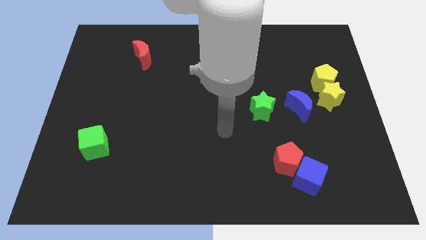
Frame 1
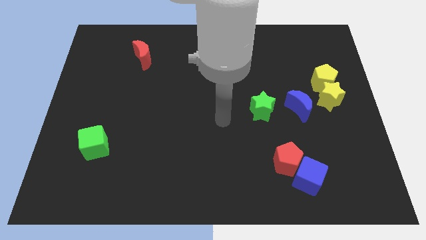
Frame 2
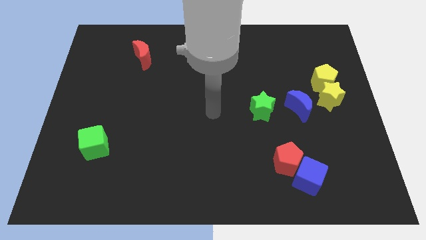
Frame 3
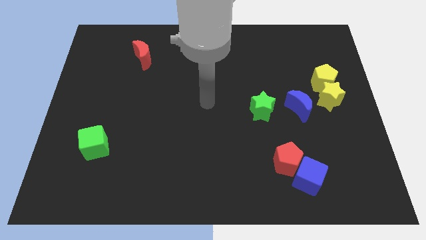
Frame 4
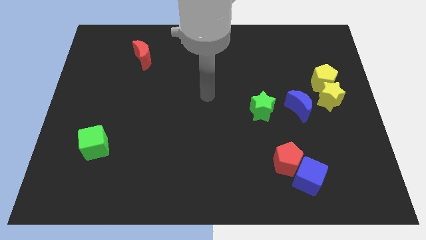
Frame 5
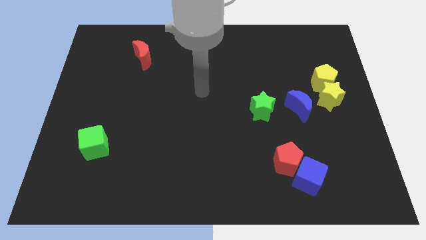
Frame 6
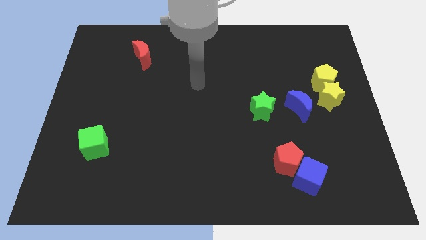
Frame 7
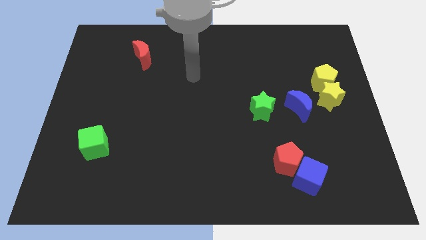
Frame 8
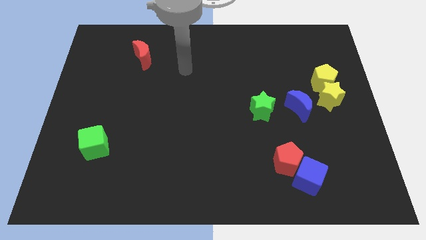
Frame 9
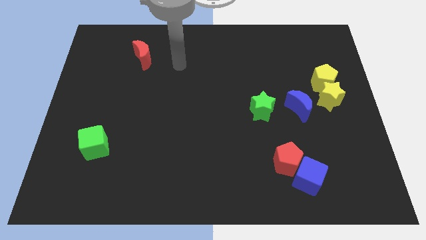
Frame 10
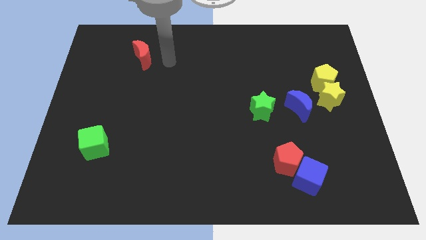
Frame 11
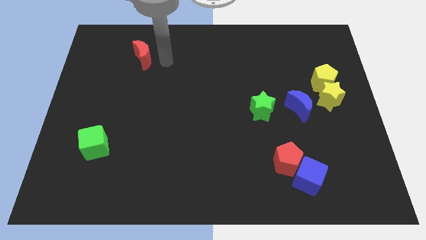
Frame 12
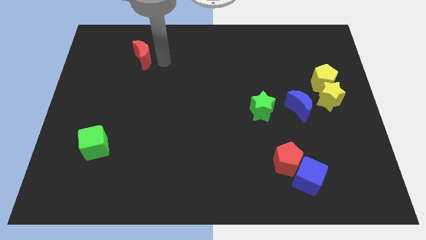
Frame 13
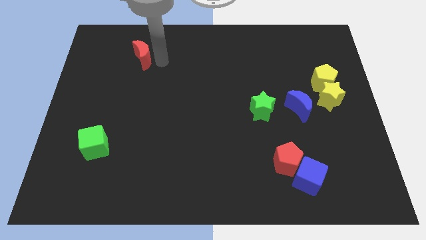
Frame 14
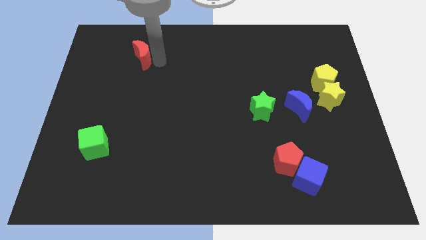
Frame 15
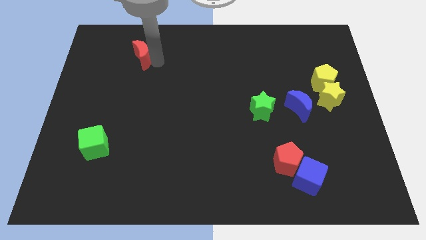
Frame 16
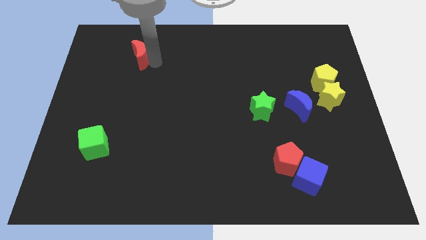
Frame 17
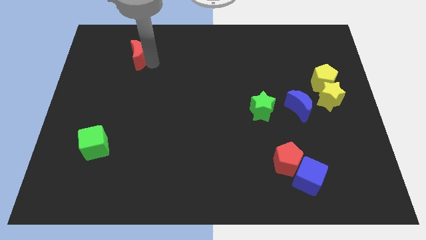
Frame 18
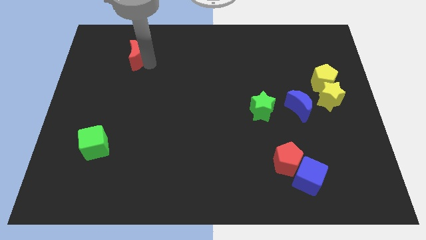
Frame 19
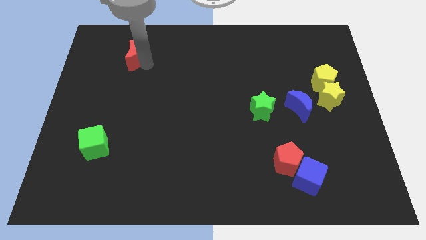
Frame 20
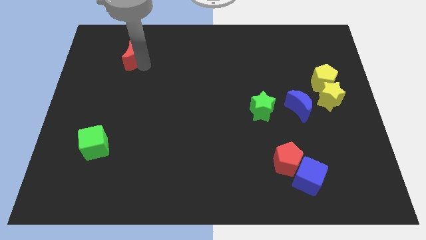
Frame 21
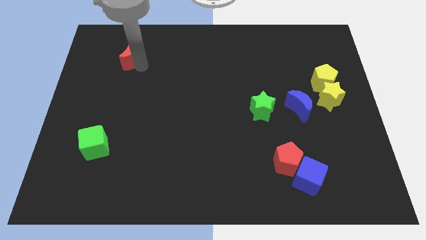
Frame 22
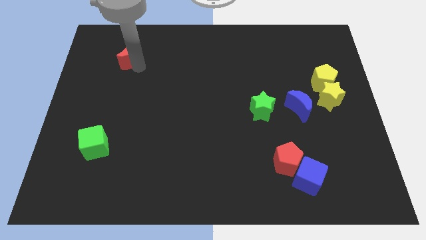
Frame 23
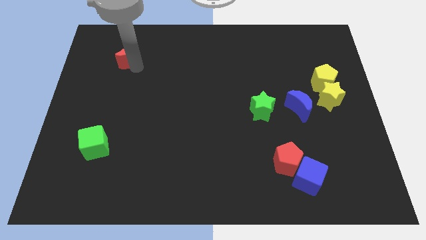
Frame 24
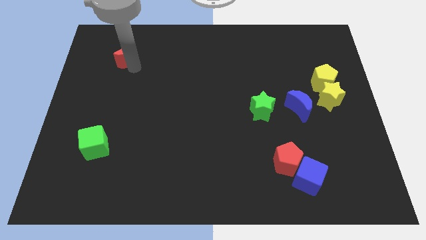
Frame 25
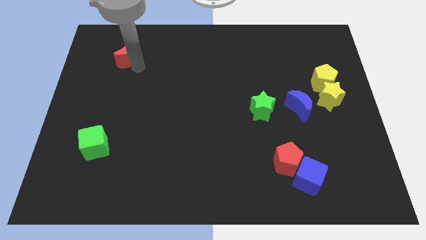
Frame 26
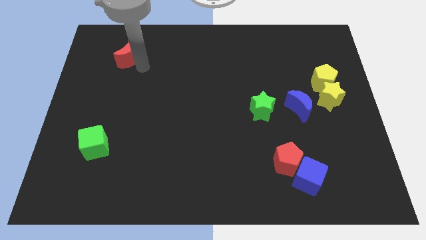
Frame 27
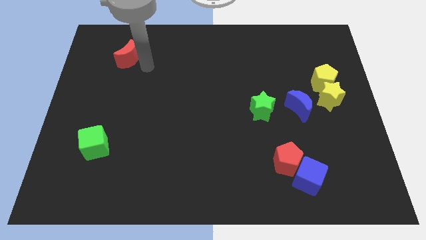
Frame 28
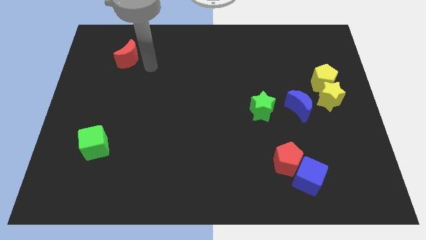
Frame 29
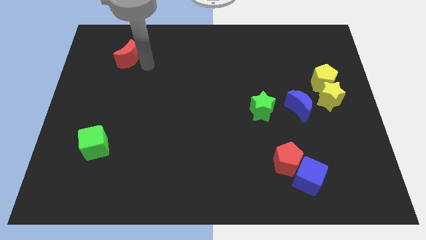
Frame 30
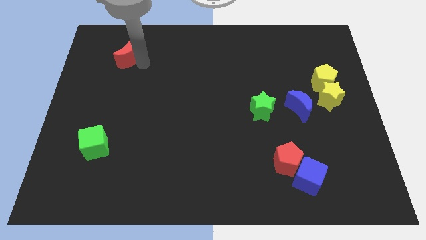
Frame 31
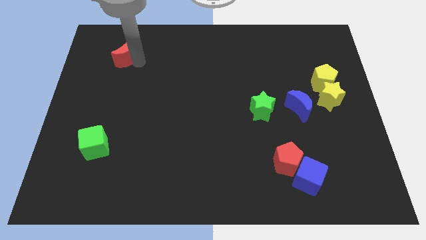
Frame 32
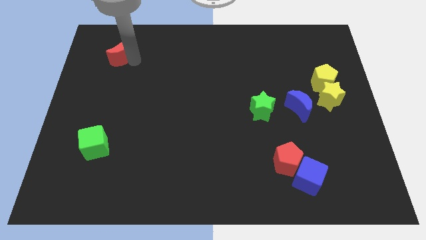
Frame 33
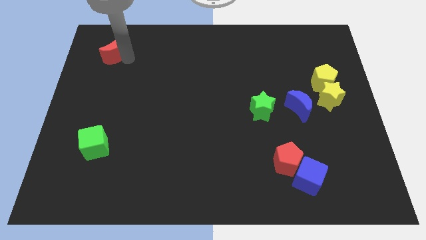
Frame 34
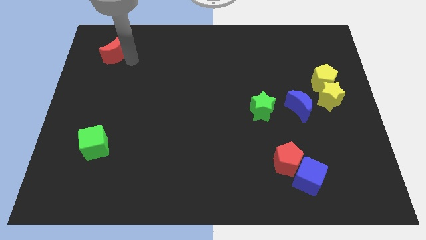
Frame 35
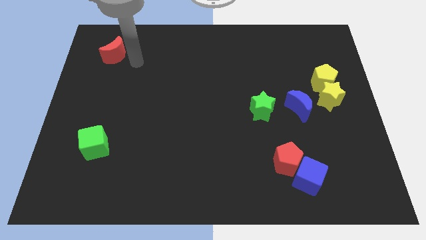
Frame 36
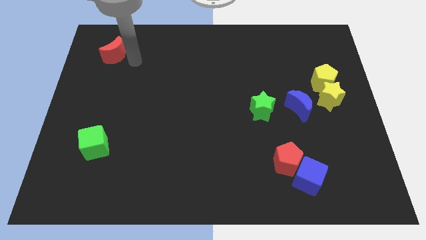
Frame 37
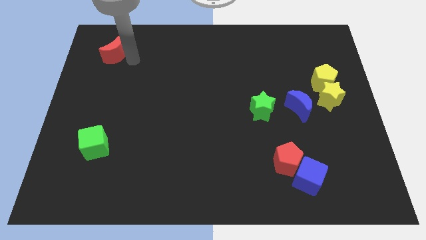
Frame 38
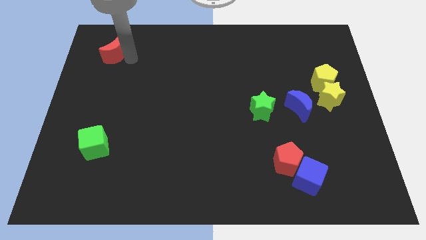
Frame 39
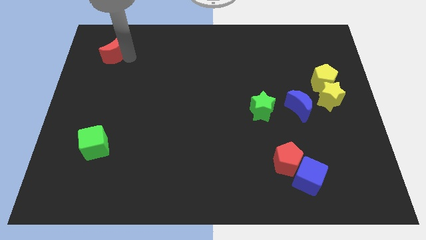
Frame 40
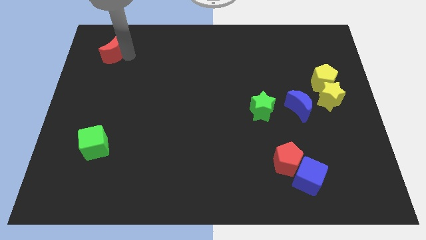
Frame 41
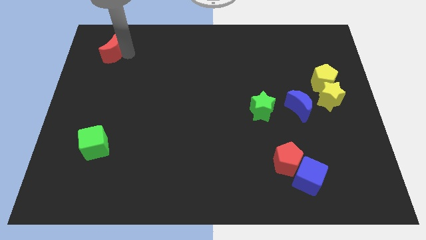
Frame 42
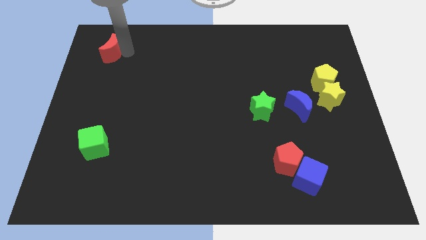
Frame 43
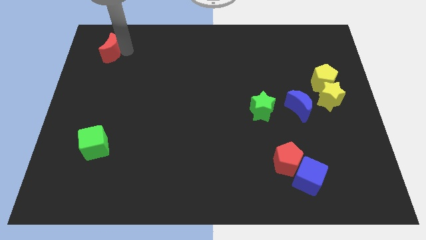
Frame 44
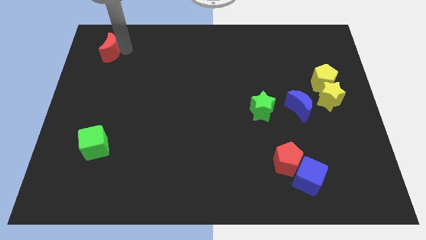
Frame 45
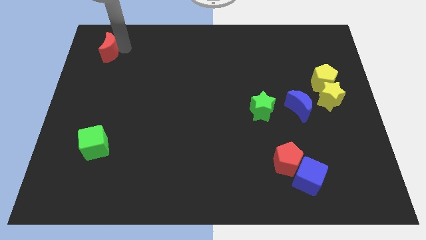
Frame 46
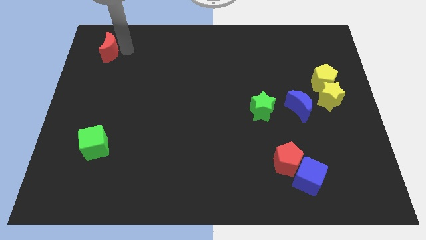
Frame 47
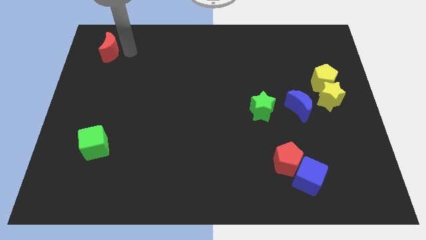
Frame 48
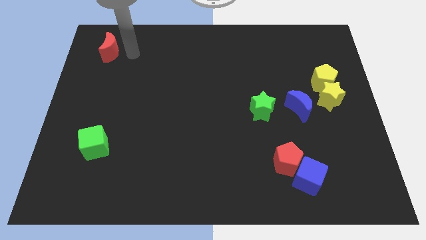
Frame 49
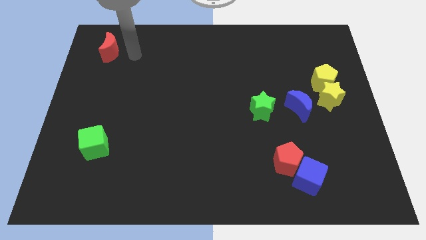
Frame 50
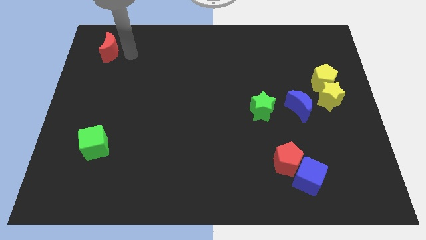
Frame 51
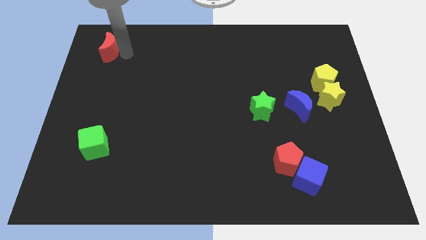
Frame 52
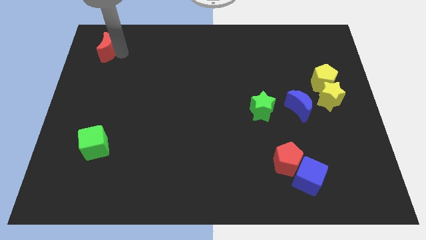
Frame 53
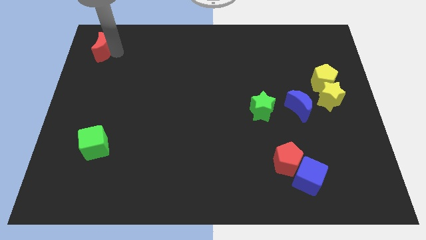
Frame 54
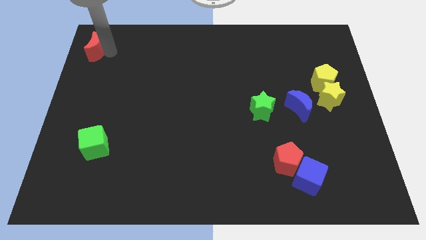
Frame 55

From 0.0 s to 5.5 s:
slide the red moon to the top left corner
